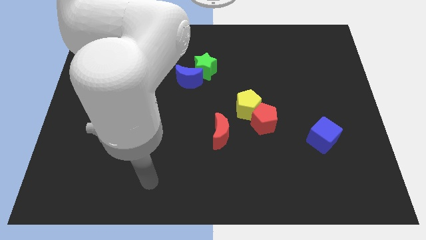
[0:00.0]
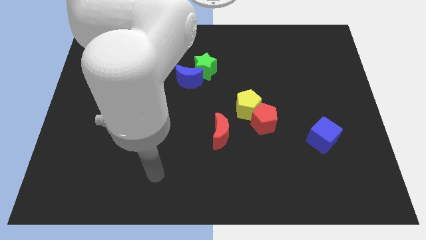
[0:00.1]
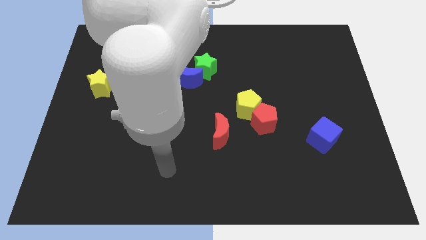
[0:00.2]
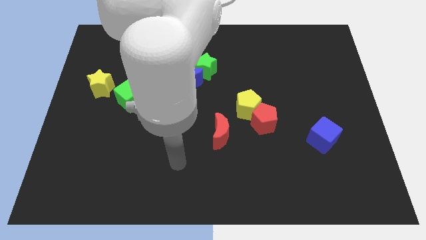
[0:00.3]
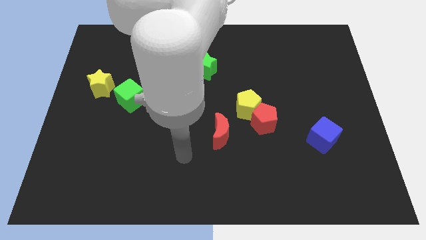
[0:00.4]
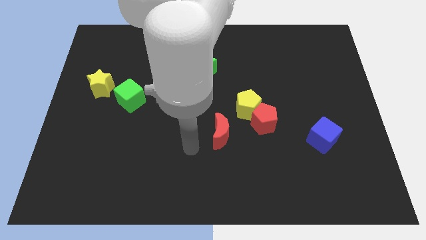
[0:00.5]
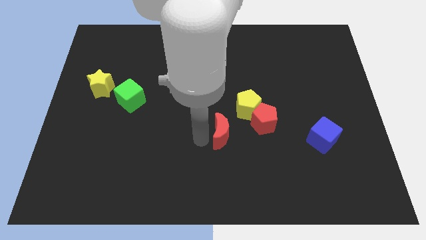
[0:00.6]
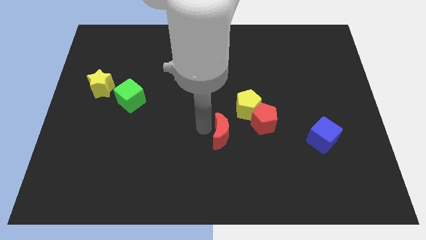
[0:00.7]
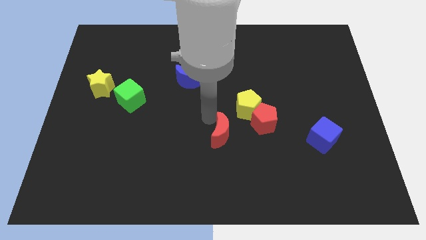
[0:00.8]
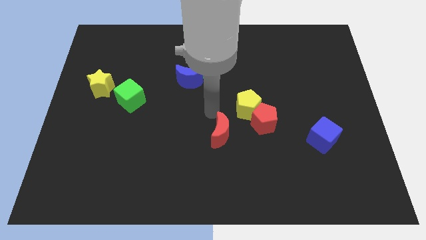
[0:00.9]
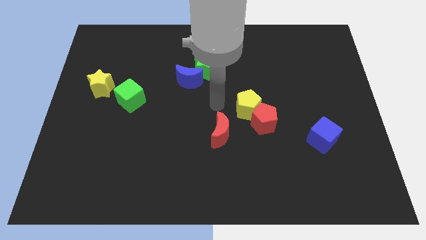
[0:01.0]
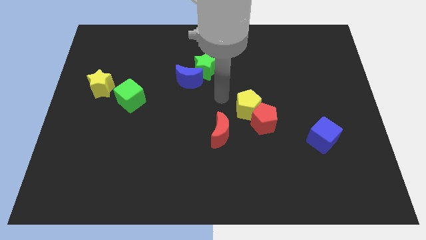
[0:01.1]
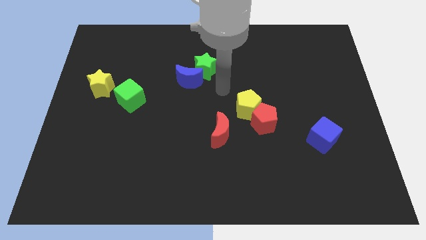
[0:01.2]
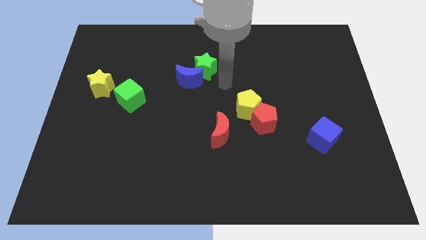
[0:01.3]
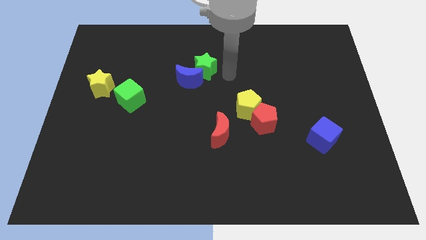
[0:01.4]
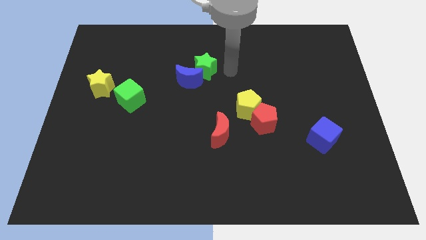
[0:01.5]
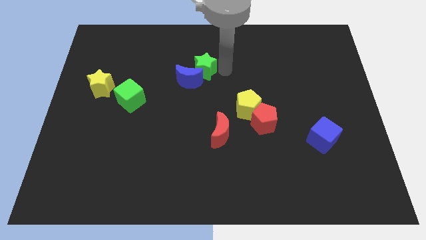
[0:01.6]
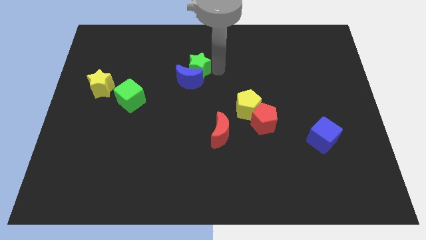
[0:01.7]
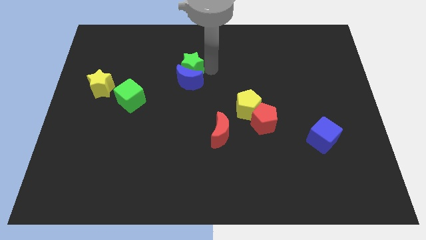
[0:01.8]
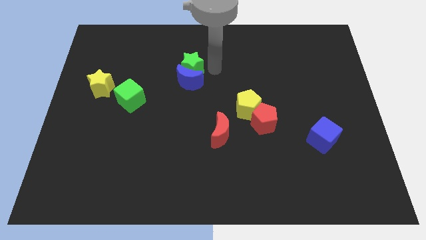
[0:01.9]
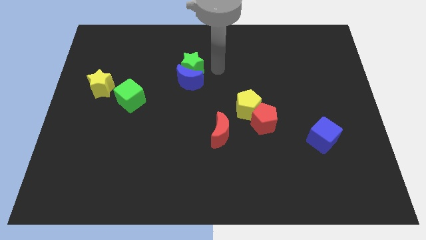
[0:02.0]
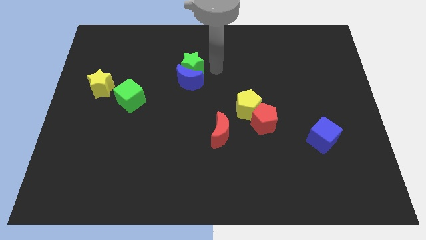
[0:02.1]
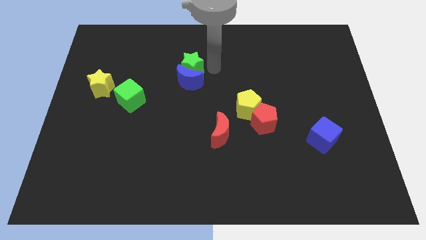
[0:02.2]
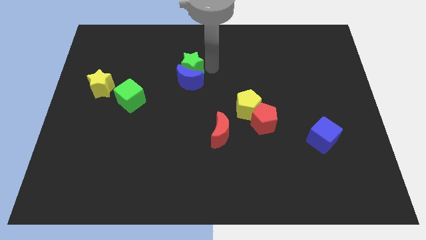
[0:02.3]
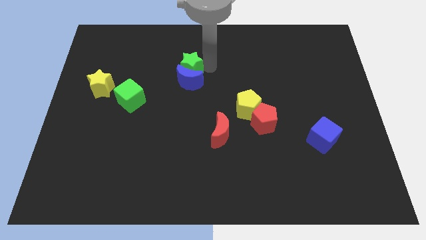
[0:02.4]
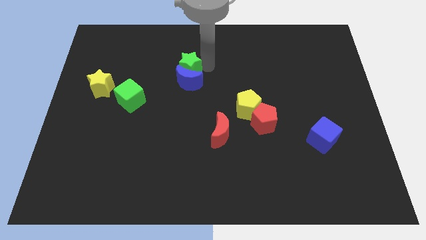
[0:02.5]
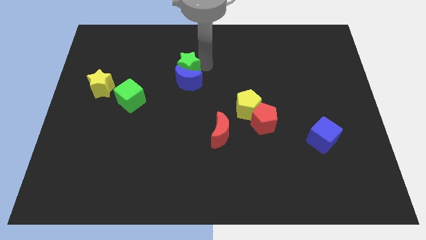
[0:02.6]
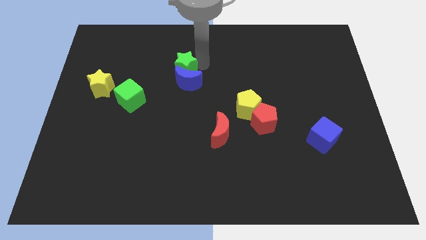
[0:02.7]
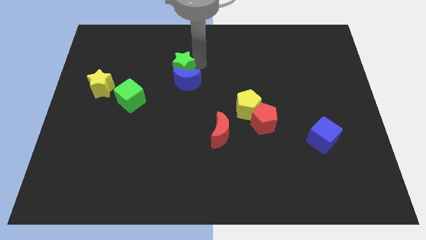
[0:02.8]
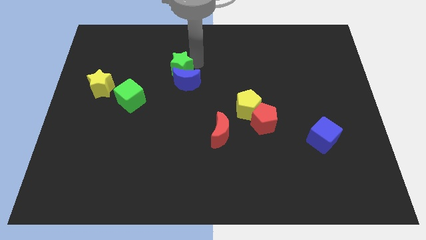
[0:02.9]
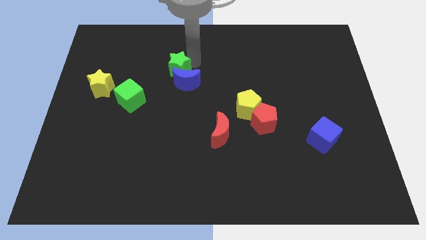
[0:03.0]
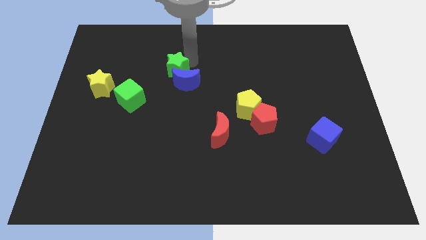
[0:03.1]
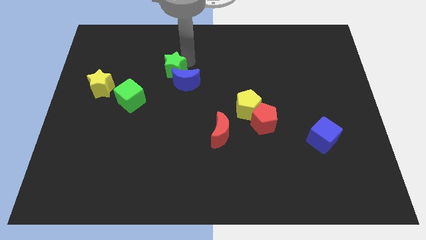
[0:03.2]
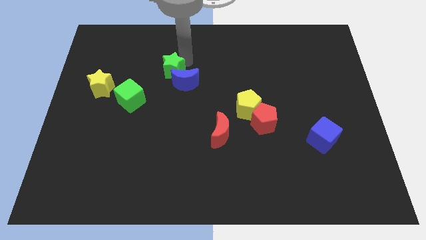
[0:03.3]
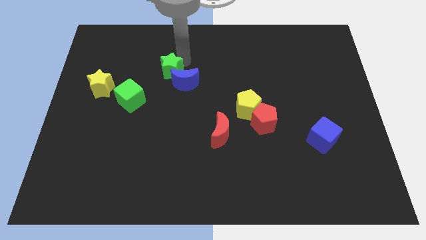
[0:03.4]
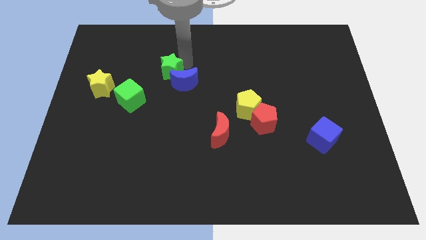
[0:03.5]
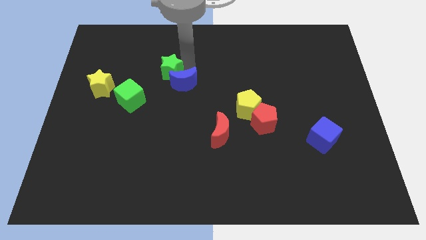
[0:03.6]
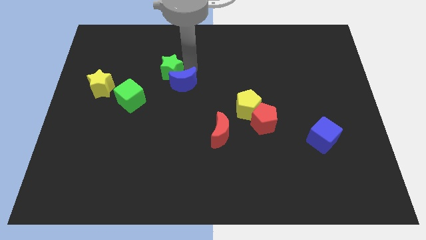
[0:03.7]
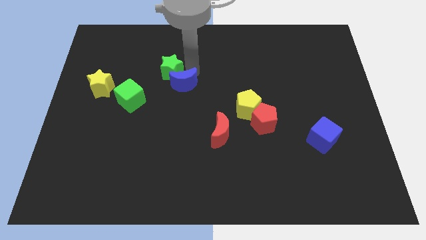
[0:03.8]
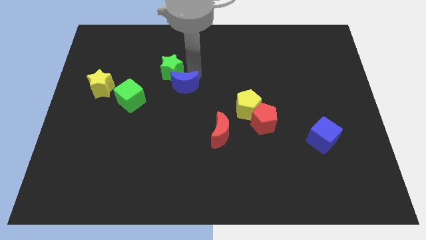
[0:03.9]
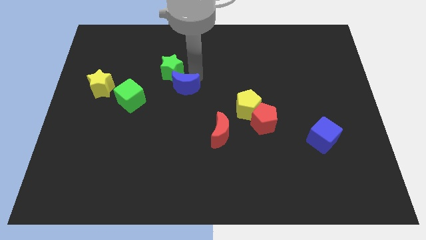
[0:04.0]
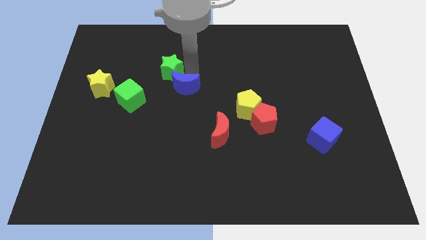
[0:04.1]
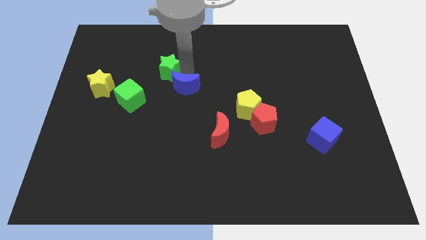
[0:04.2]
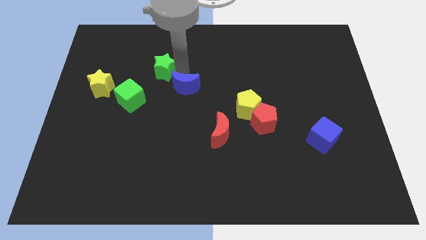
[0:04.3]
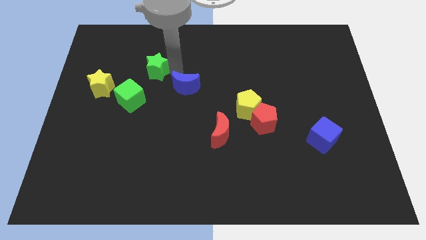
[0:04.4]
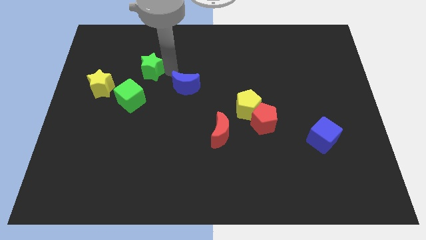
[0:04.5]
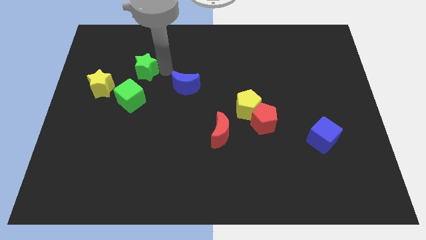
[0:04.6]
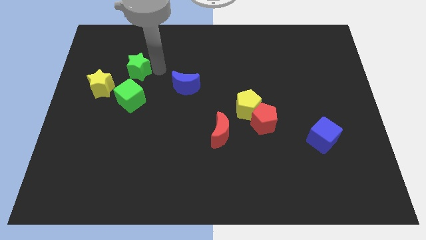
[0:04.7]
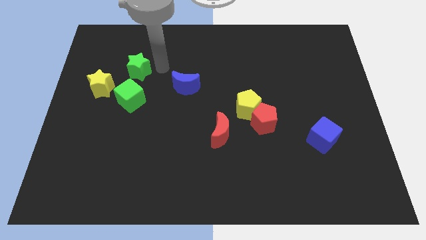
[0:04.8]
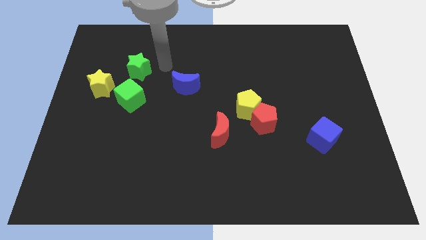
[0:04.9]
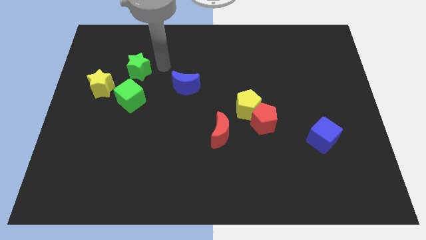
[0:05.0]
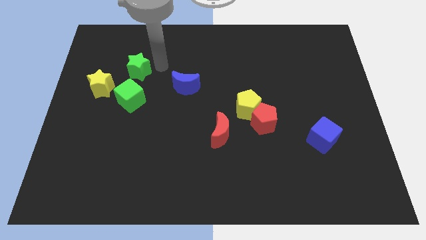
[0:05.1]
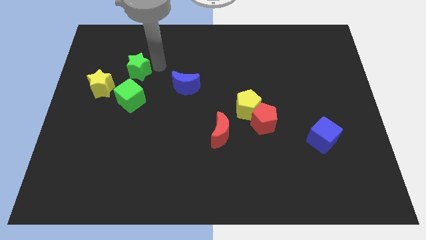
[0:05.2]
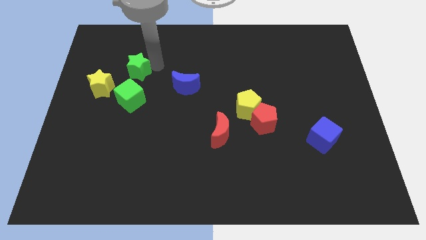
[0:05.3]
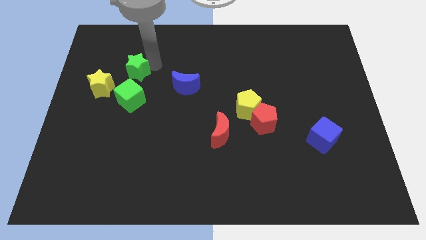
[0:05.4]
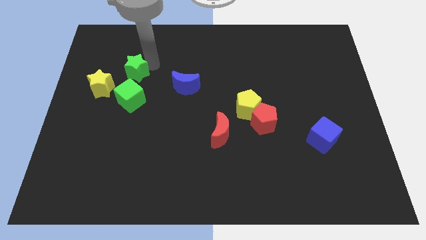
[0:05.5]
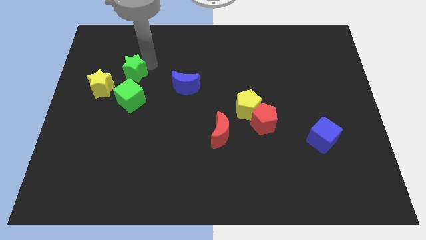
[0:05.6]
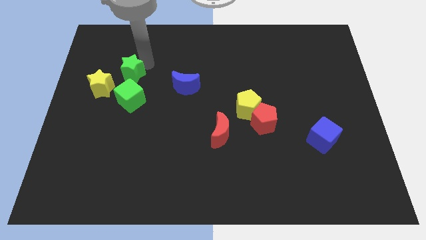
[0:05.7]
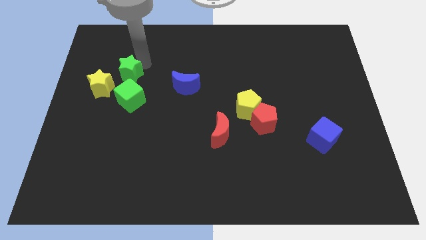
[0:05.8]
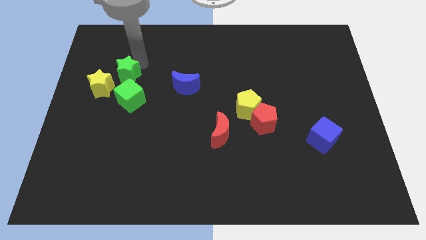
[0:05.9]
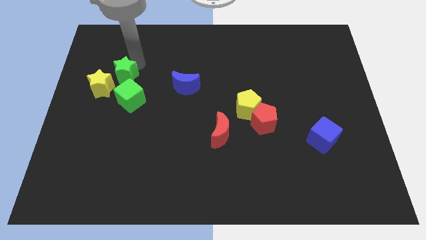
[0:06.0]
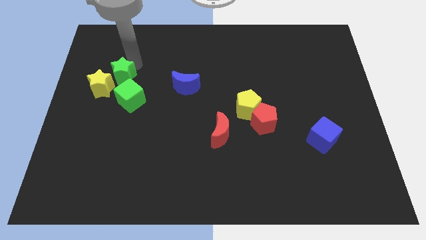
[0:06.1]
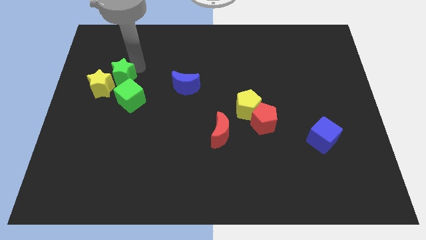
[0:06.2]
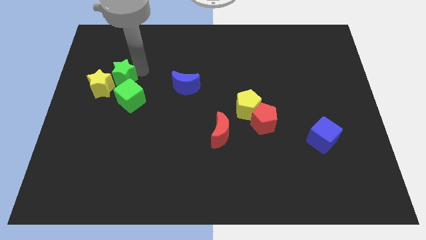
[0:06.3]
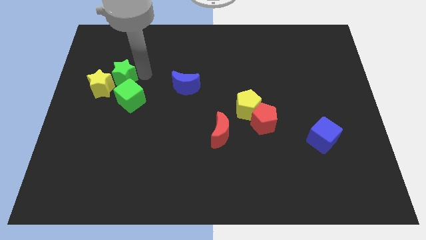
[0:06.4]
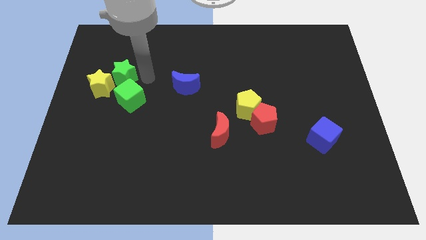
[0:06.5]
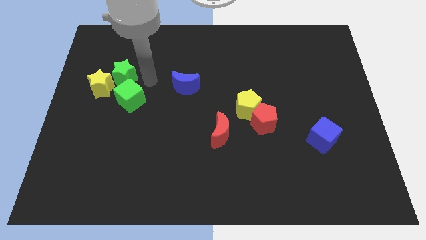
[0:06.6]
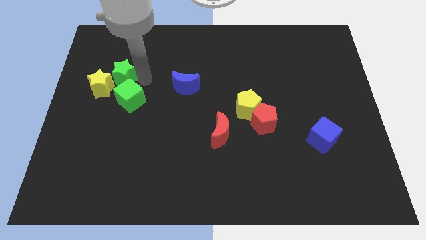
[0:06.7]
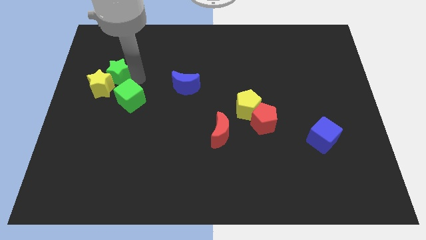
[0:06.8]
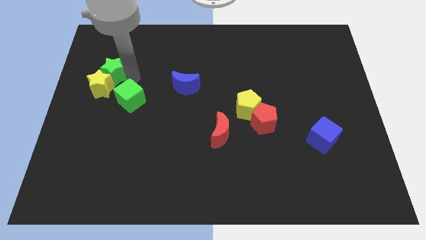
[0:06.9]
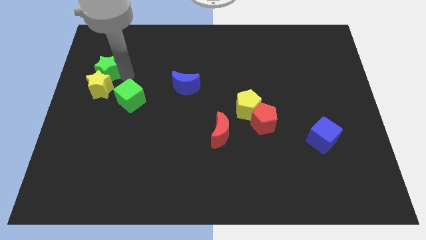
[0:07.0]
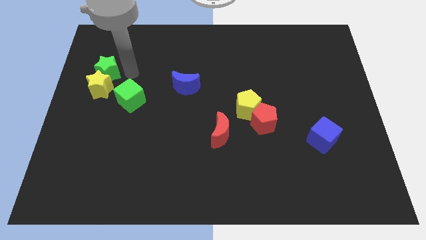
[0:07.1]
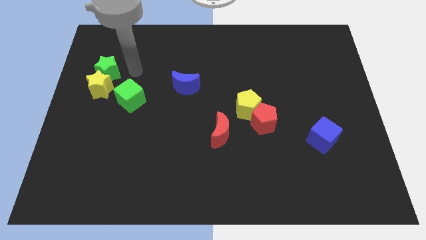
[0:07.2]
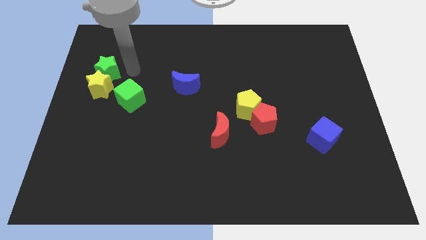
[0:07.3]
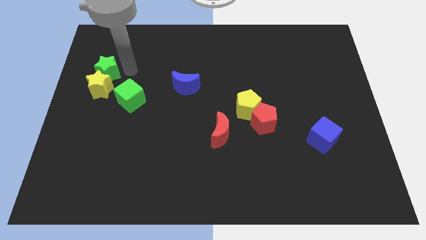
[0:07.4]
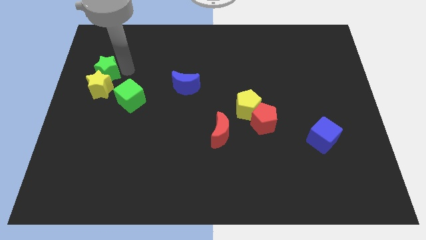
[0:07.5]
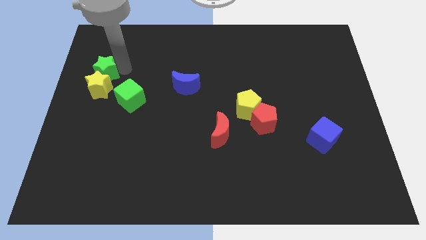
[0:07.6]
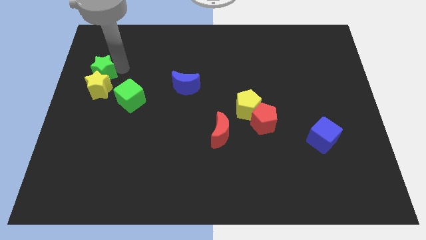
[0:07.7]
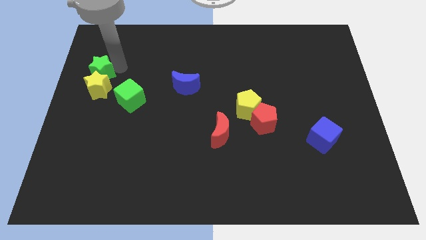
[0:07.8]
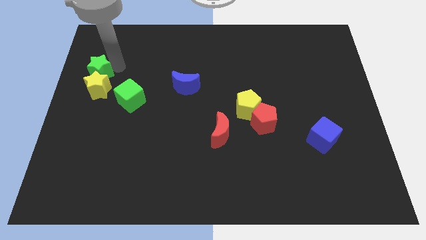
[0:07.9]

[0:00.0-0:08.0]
put the green star to the center left
